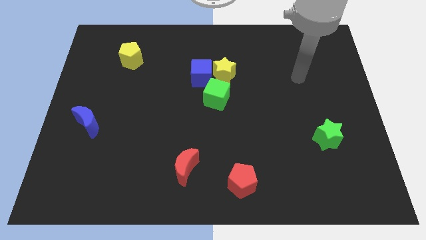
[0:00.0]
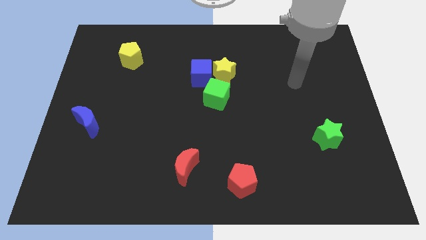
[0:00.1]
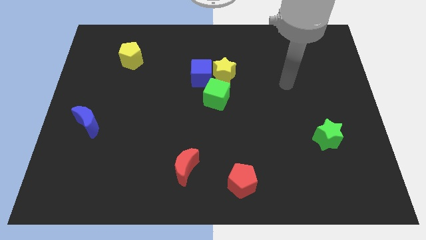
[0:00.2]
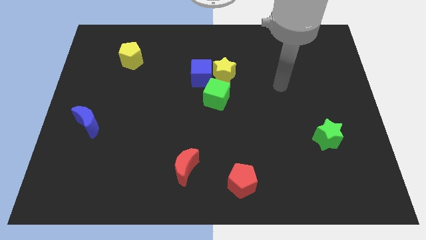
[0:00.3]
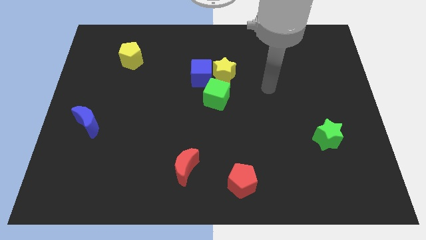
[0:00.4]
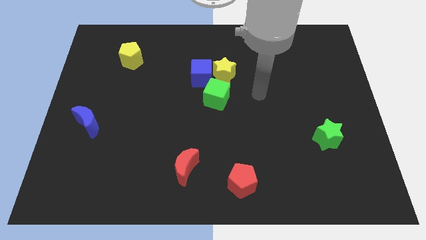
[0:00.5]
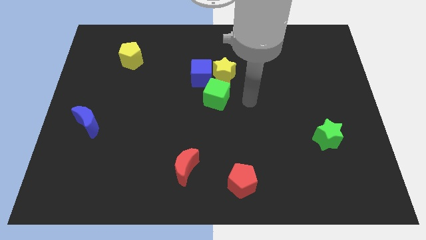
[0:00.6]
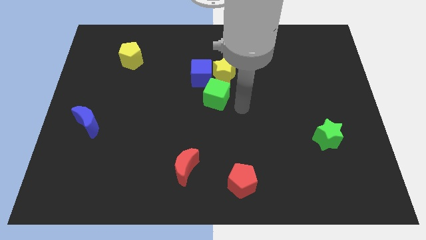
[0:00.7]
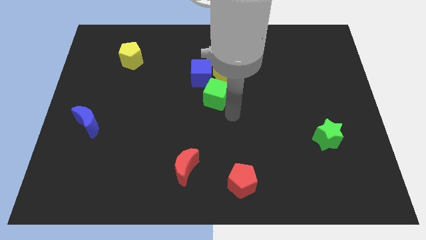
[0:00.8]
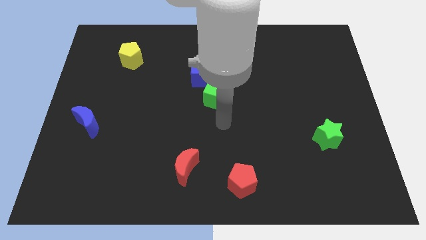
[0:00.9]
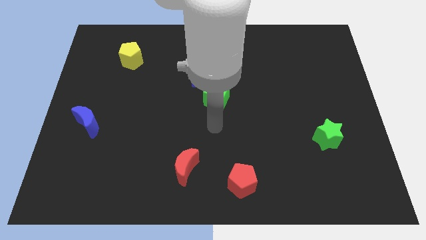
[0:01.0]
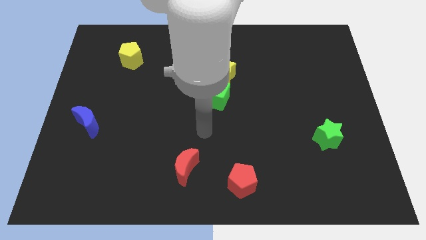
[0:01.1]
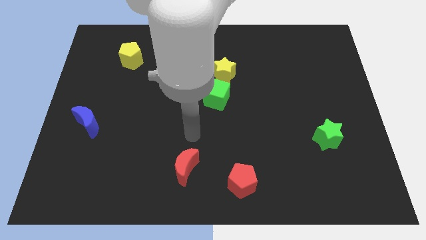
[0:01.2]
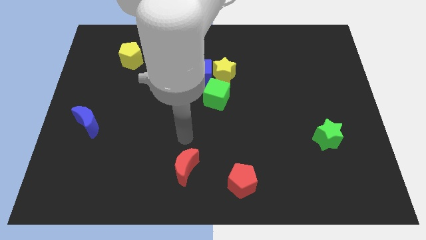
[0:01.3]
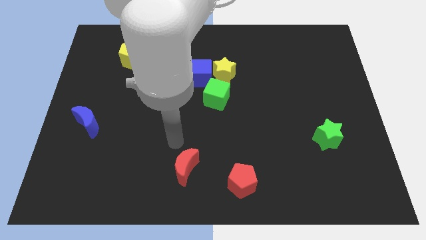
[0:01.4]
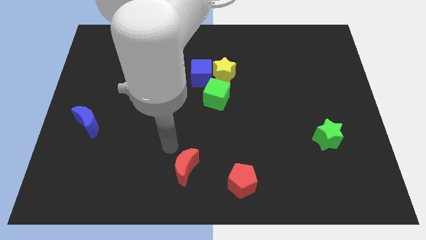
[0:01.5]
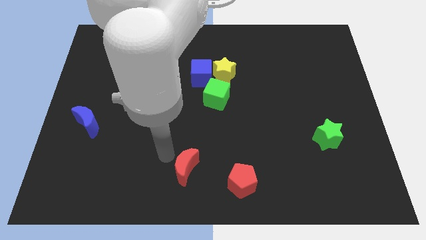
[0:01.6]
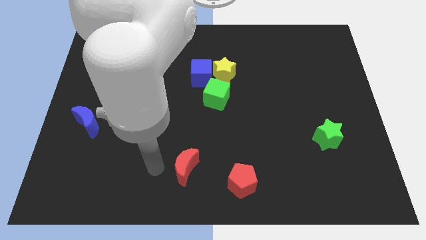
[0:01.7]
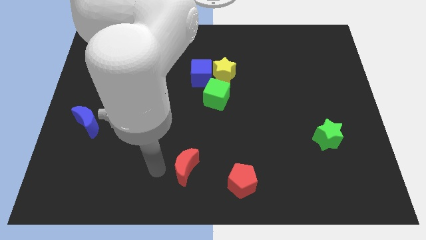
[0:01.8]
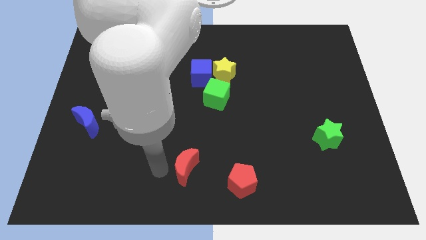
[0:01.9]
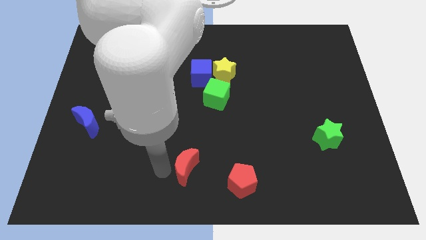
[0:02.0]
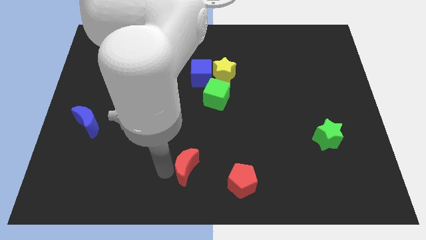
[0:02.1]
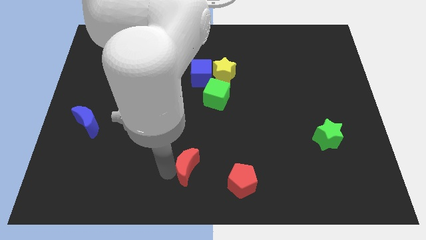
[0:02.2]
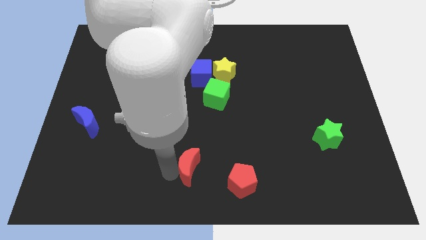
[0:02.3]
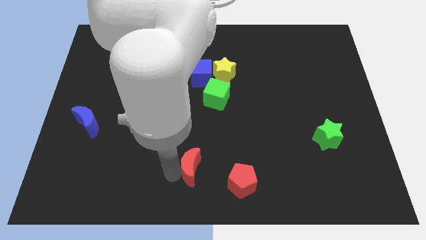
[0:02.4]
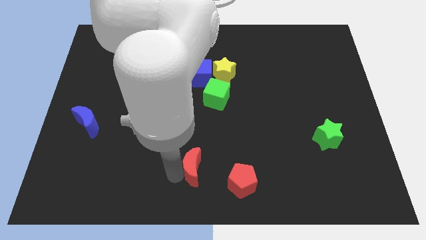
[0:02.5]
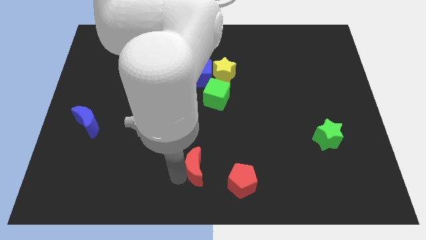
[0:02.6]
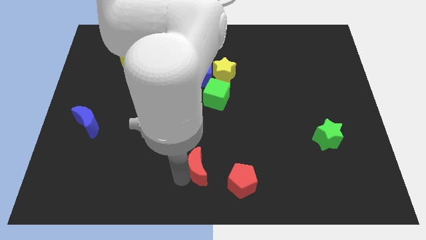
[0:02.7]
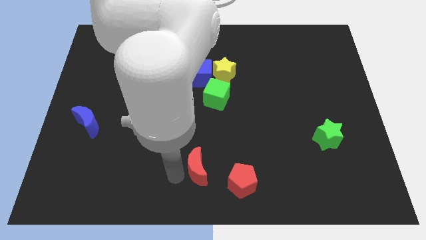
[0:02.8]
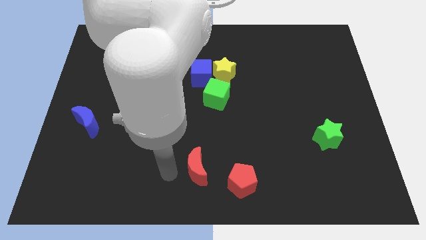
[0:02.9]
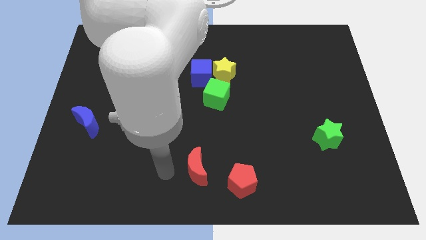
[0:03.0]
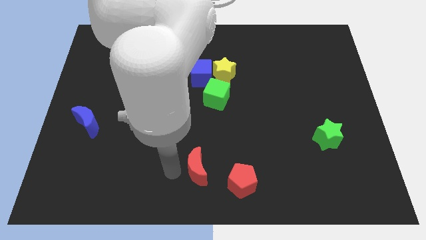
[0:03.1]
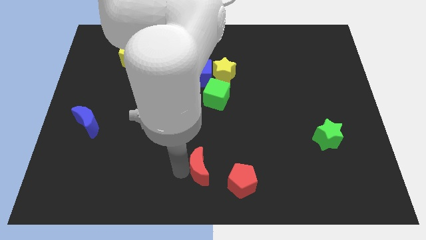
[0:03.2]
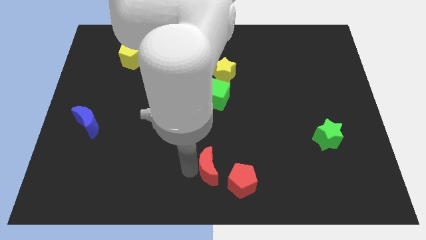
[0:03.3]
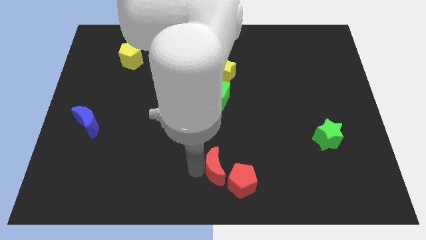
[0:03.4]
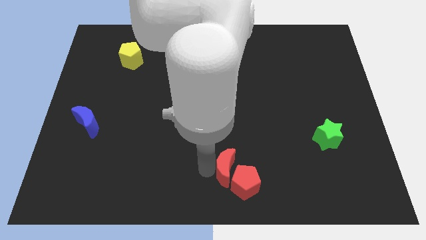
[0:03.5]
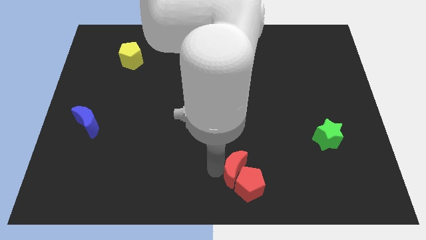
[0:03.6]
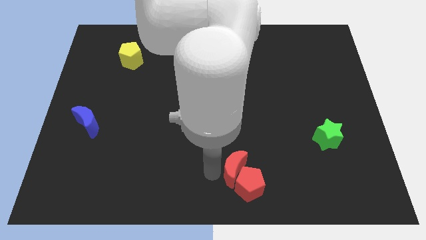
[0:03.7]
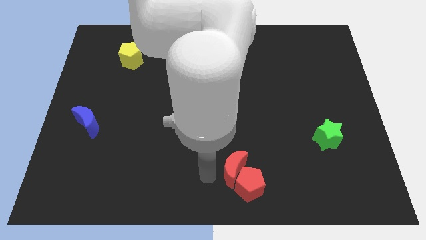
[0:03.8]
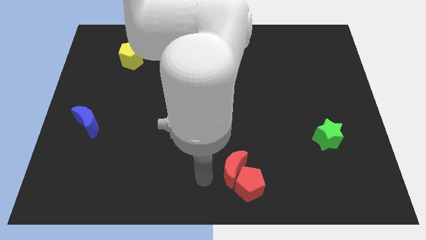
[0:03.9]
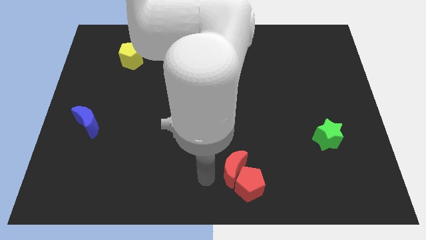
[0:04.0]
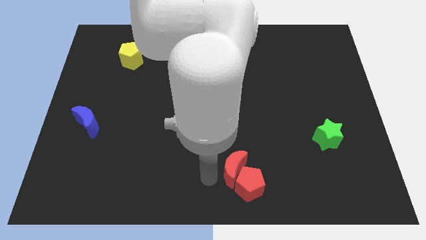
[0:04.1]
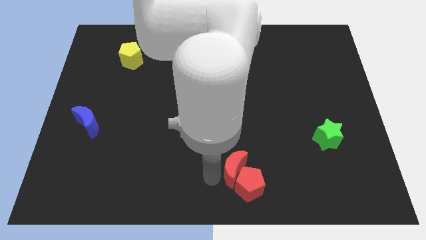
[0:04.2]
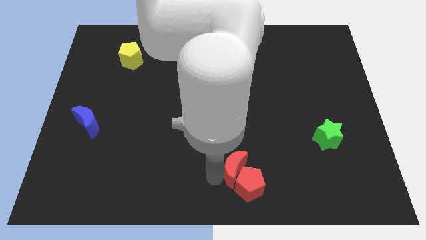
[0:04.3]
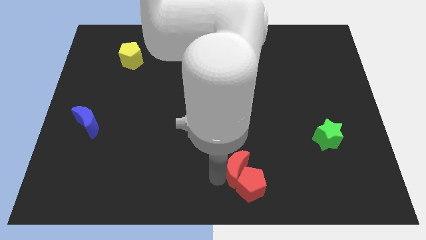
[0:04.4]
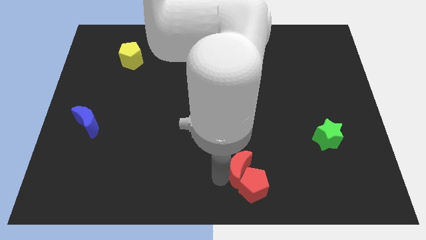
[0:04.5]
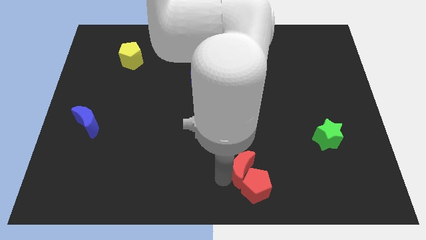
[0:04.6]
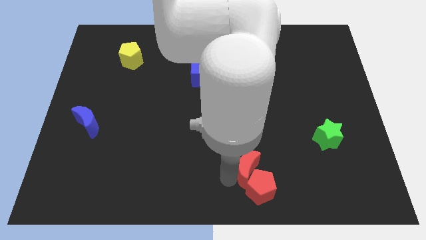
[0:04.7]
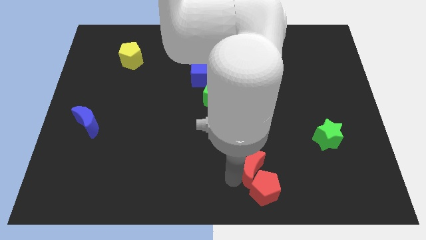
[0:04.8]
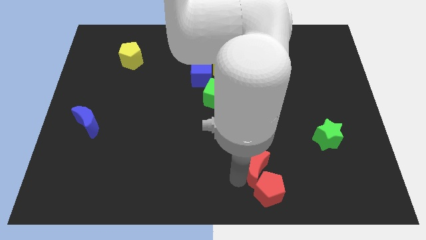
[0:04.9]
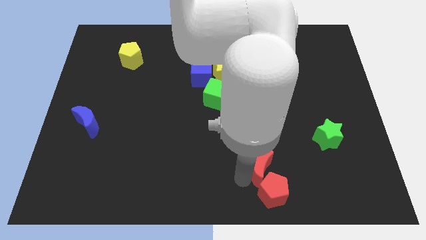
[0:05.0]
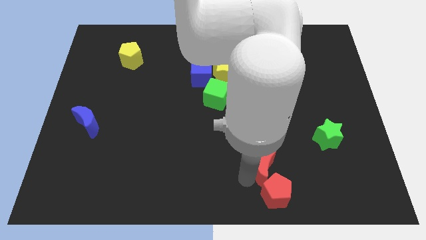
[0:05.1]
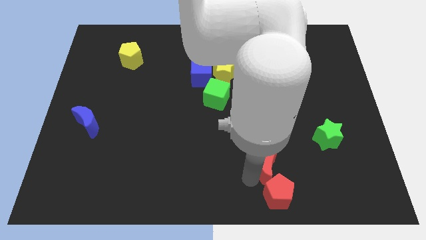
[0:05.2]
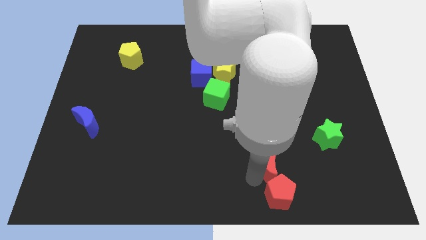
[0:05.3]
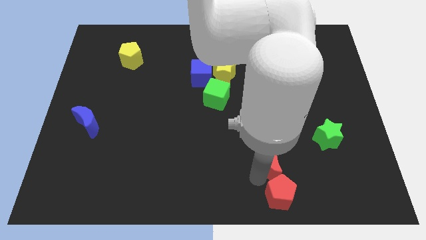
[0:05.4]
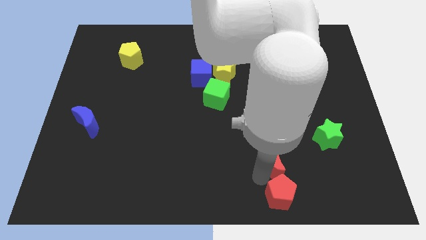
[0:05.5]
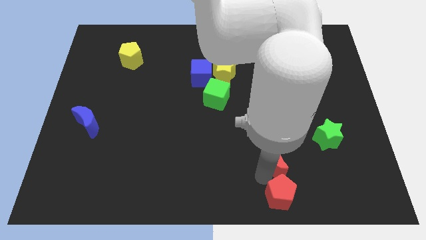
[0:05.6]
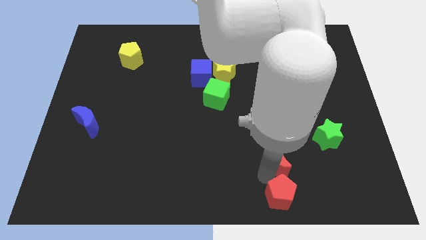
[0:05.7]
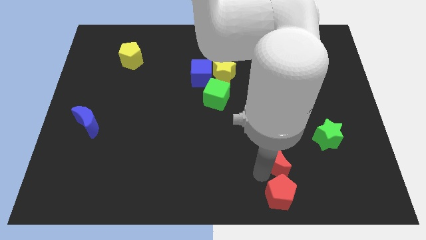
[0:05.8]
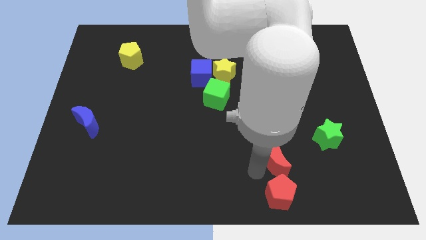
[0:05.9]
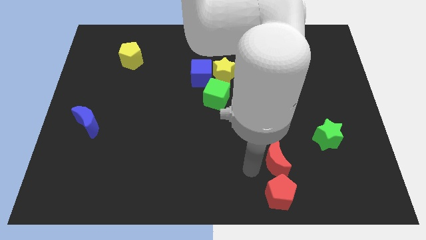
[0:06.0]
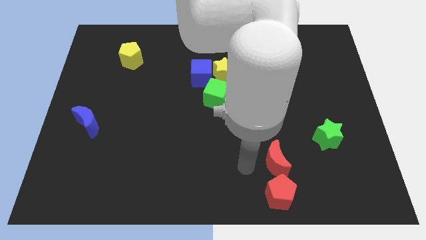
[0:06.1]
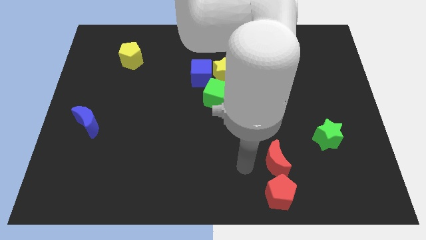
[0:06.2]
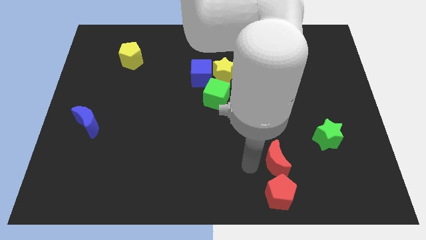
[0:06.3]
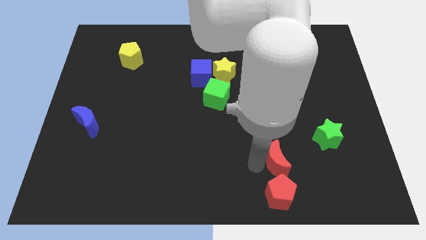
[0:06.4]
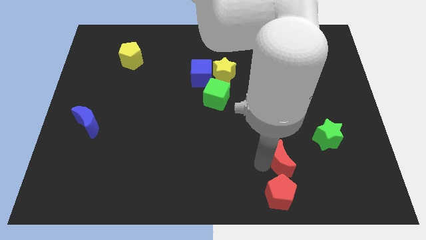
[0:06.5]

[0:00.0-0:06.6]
push the red moon right

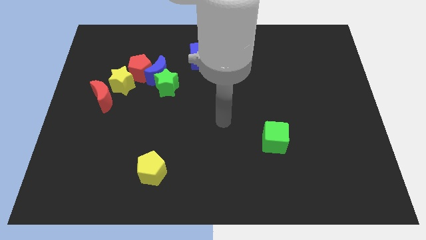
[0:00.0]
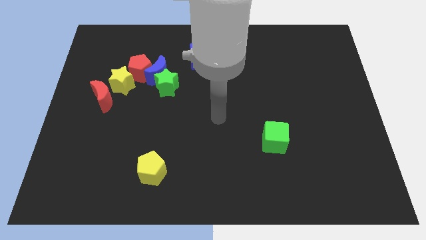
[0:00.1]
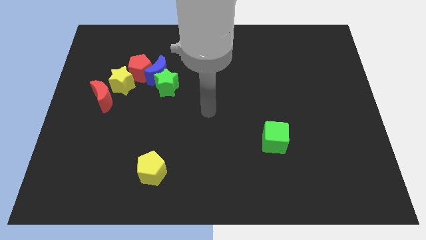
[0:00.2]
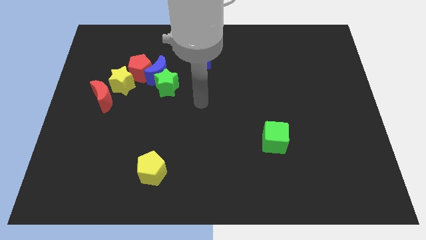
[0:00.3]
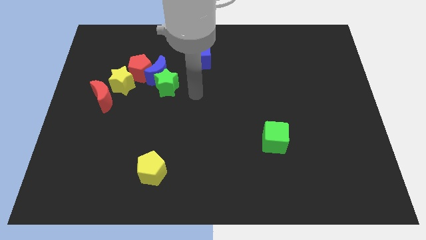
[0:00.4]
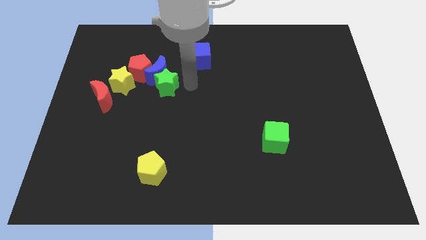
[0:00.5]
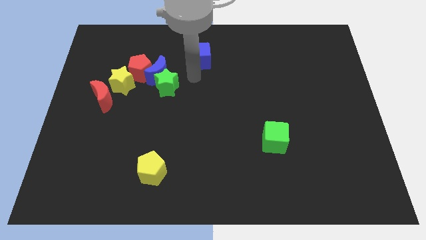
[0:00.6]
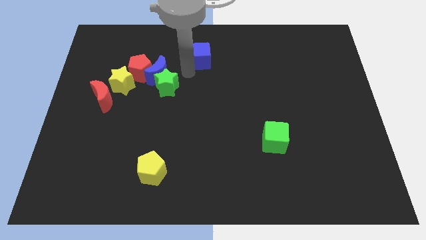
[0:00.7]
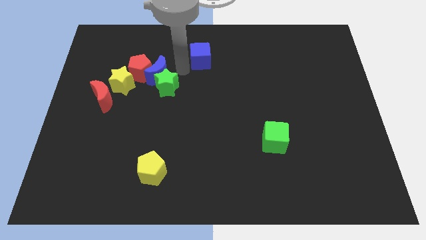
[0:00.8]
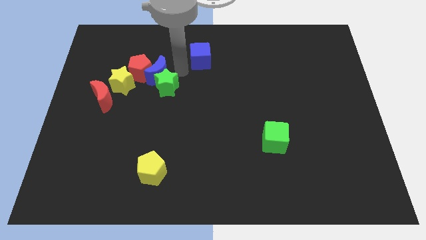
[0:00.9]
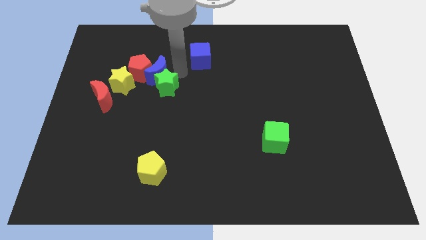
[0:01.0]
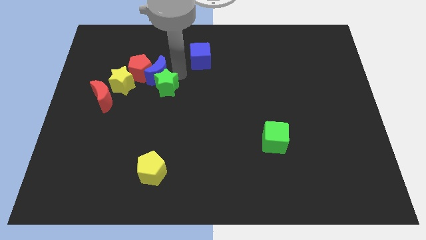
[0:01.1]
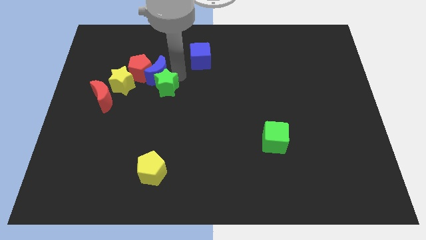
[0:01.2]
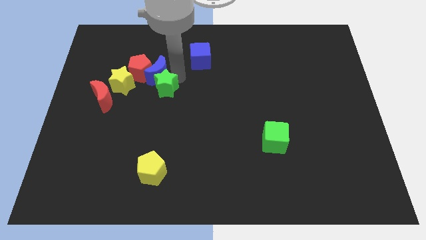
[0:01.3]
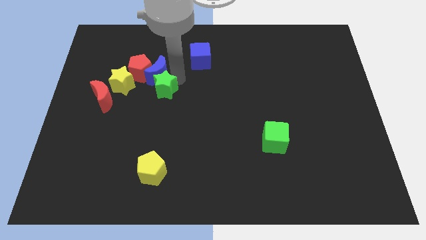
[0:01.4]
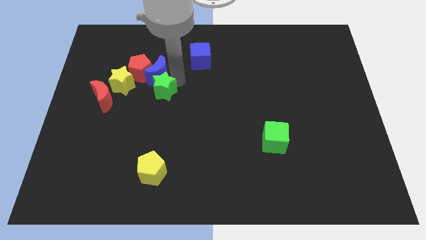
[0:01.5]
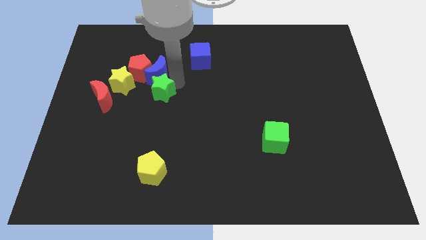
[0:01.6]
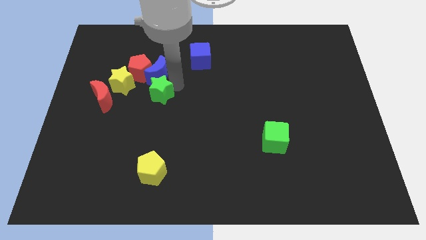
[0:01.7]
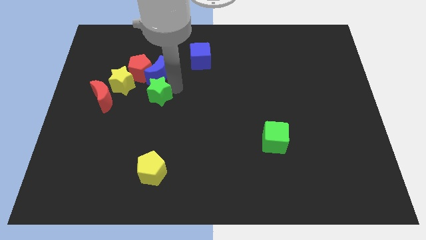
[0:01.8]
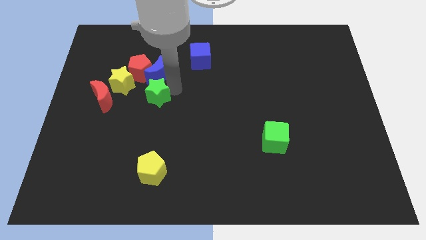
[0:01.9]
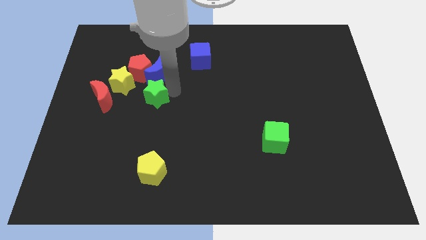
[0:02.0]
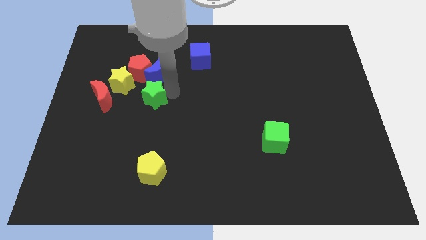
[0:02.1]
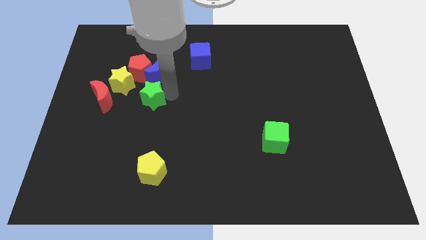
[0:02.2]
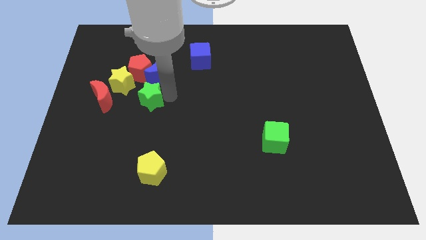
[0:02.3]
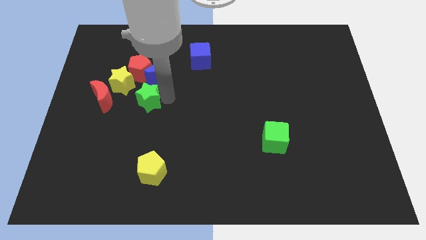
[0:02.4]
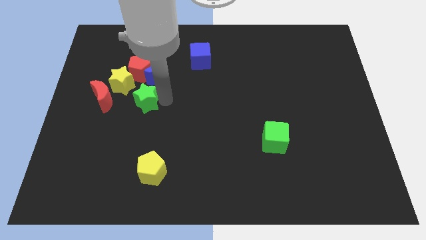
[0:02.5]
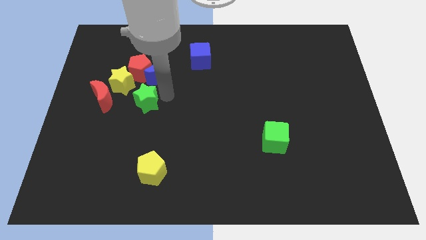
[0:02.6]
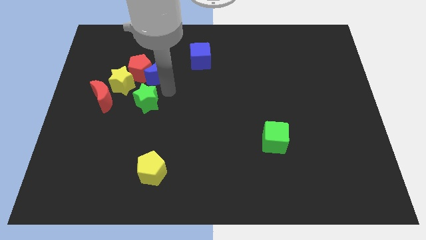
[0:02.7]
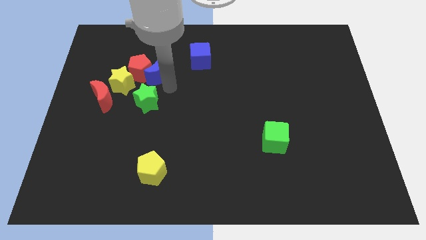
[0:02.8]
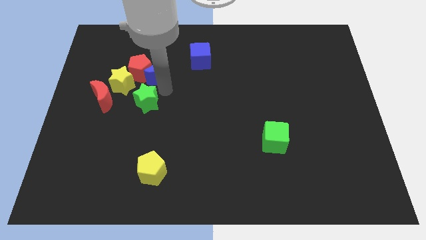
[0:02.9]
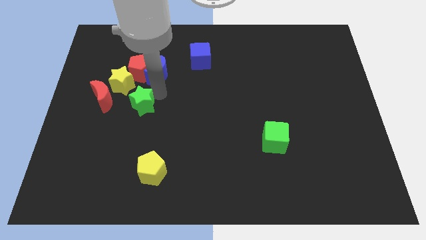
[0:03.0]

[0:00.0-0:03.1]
move the green star somewhat downwards and then to the left
